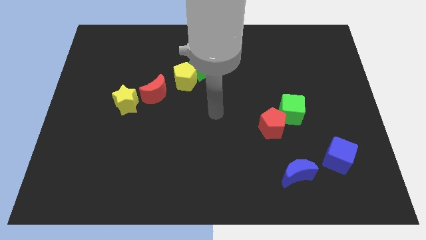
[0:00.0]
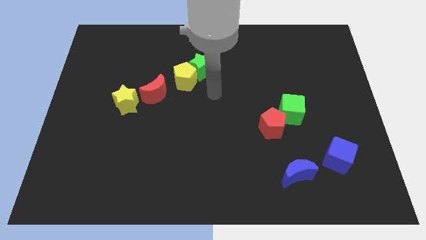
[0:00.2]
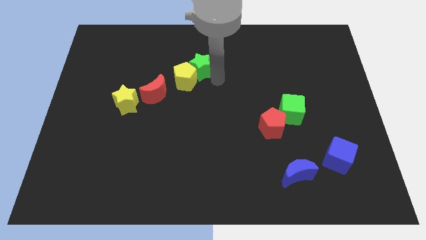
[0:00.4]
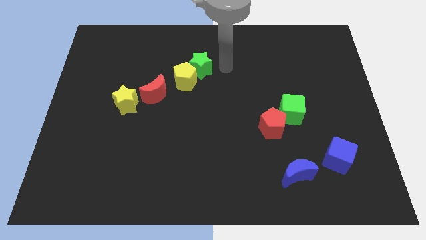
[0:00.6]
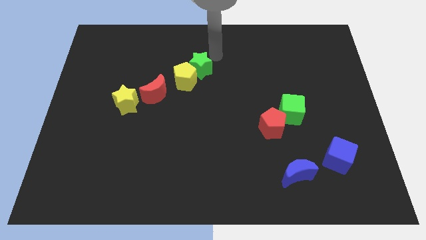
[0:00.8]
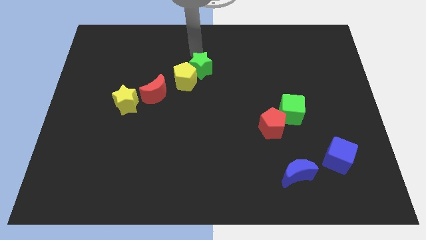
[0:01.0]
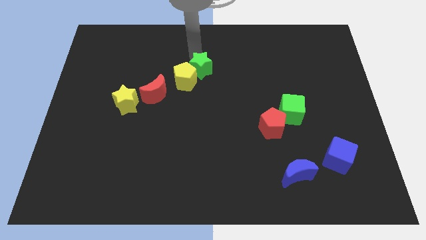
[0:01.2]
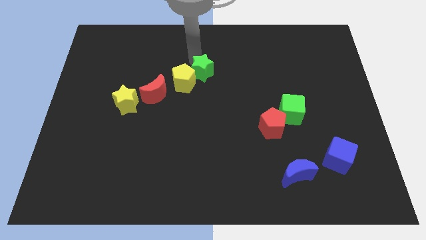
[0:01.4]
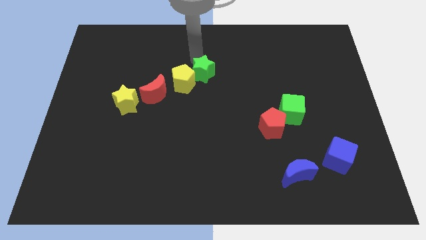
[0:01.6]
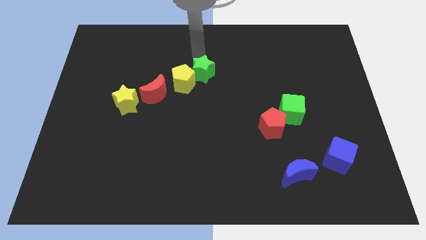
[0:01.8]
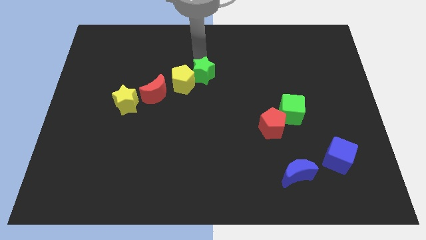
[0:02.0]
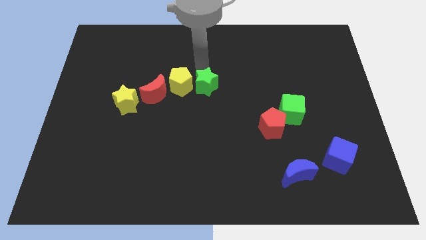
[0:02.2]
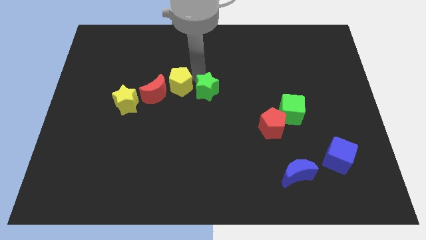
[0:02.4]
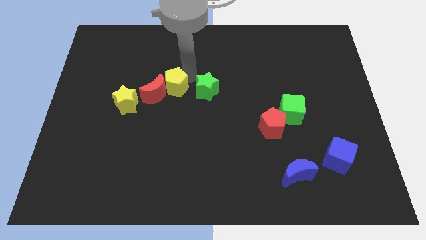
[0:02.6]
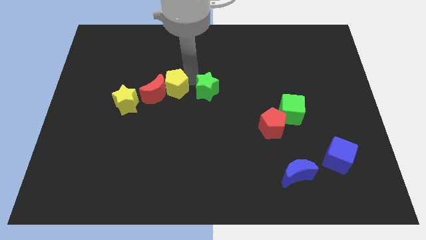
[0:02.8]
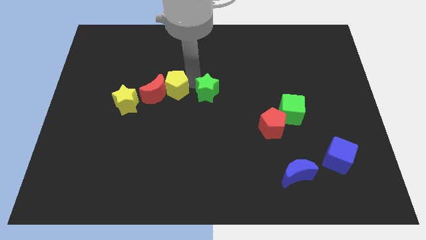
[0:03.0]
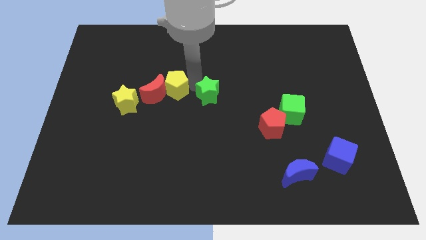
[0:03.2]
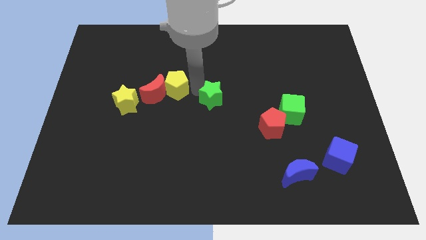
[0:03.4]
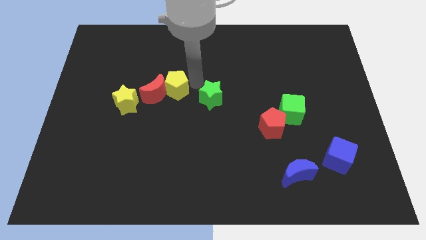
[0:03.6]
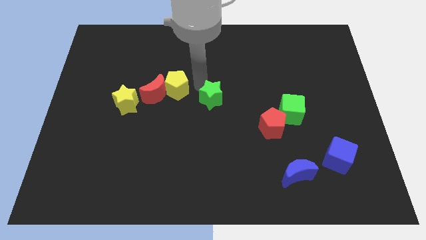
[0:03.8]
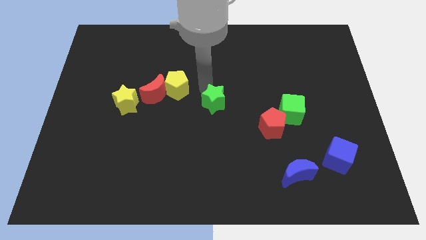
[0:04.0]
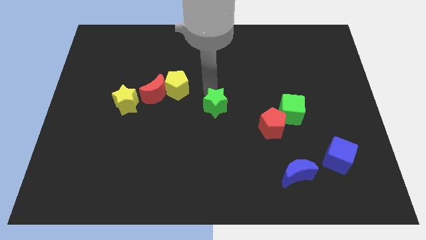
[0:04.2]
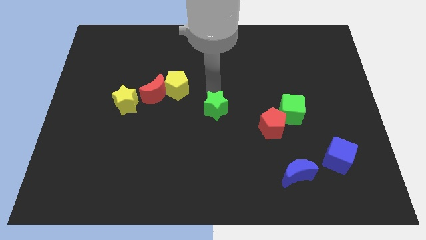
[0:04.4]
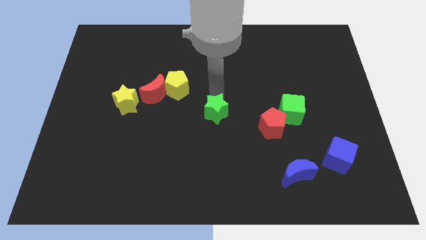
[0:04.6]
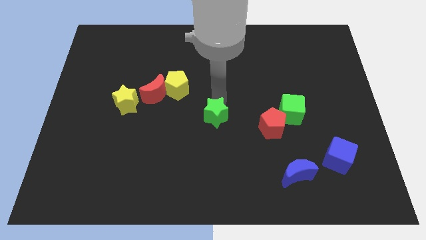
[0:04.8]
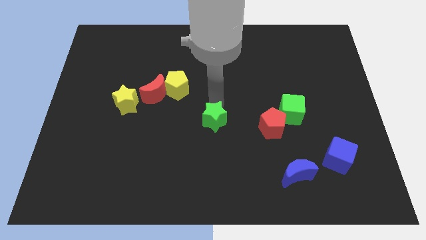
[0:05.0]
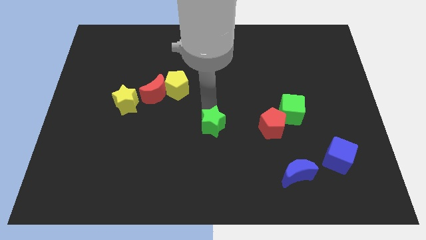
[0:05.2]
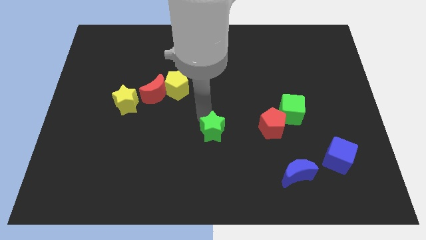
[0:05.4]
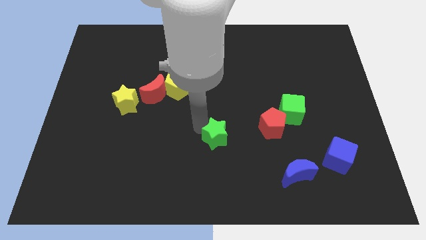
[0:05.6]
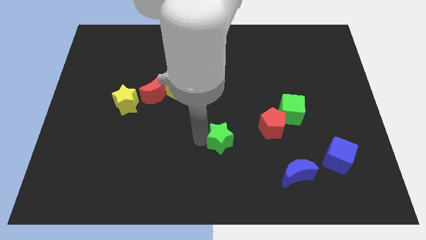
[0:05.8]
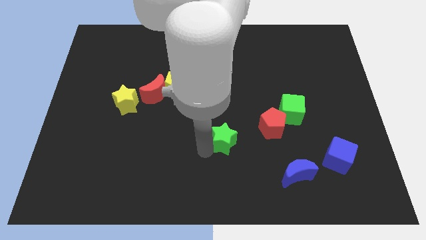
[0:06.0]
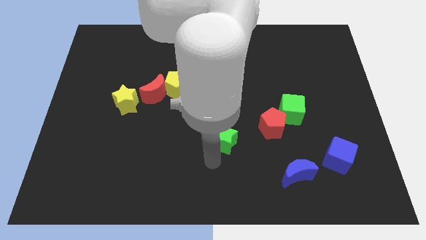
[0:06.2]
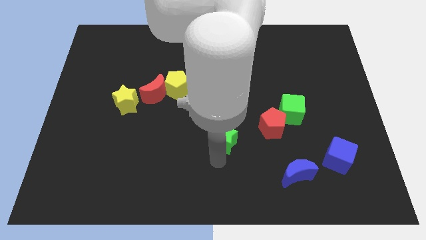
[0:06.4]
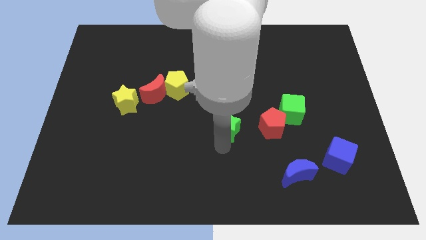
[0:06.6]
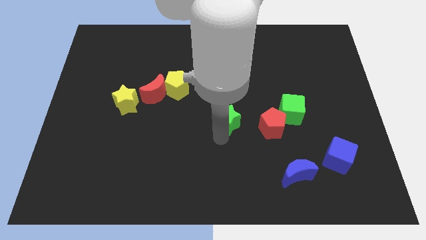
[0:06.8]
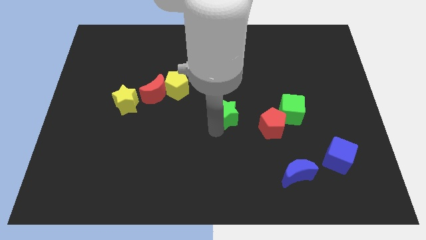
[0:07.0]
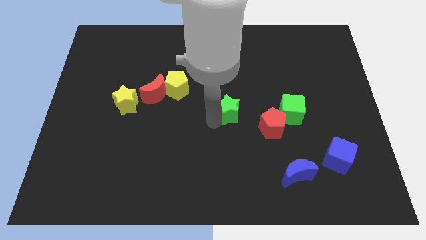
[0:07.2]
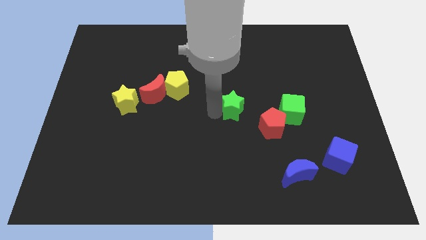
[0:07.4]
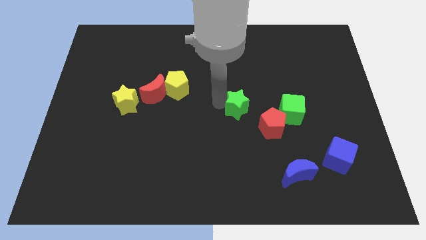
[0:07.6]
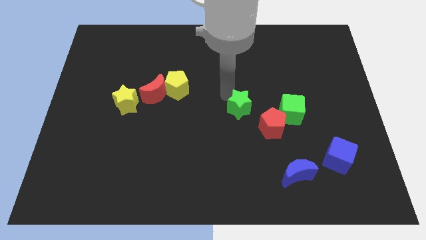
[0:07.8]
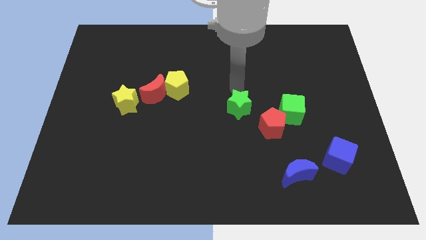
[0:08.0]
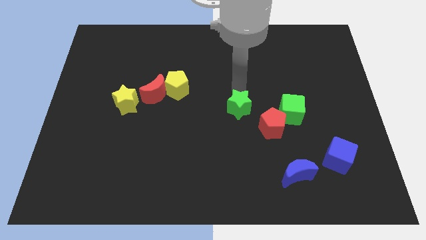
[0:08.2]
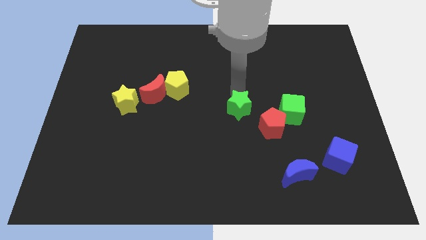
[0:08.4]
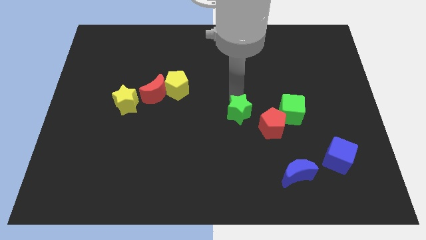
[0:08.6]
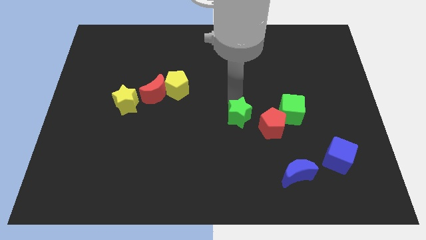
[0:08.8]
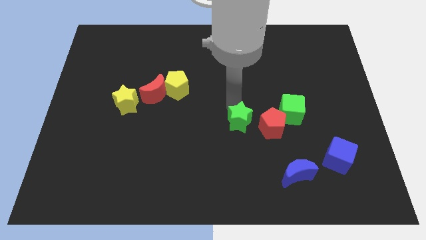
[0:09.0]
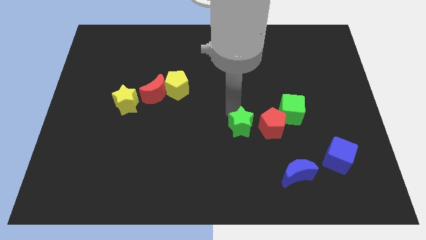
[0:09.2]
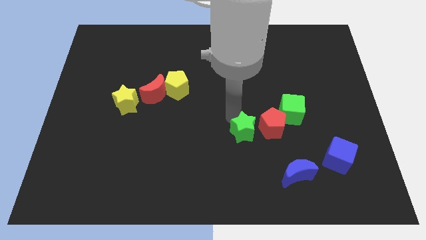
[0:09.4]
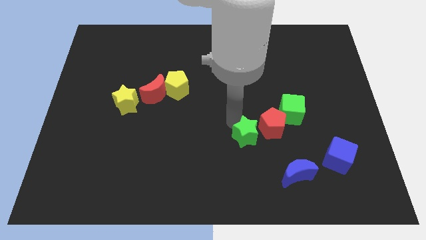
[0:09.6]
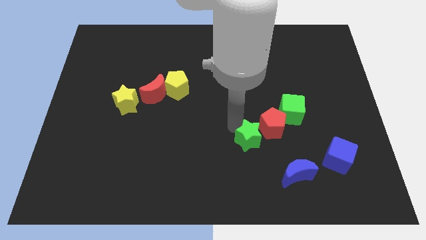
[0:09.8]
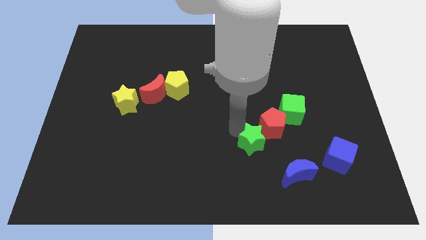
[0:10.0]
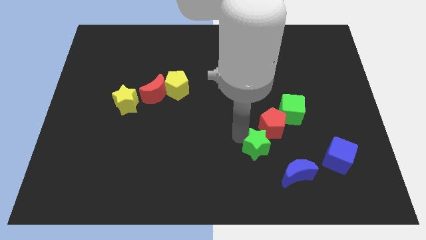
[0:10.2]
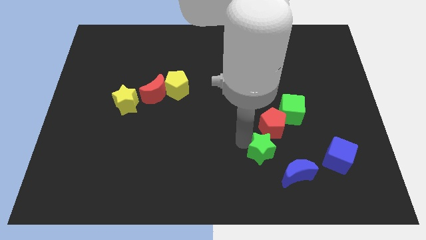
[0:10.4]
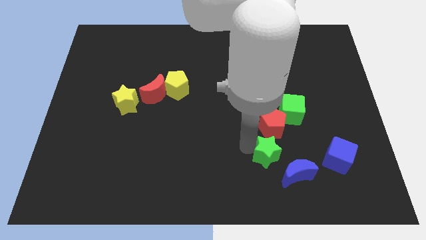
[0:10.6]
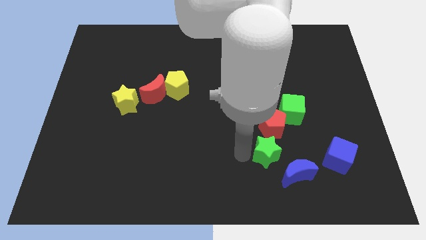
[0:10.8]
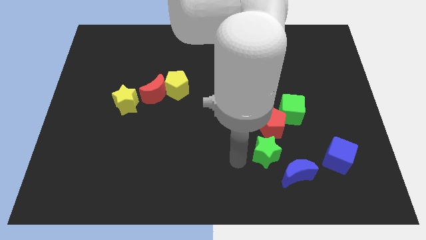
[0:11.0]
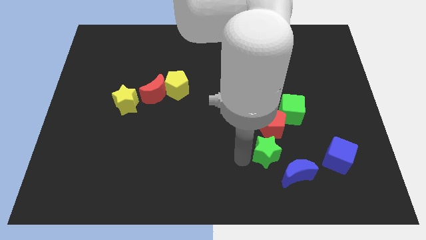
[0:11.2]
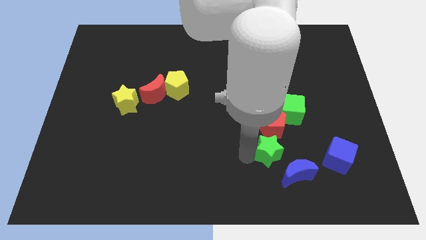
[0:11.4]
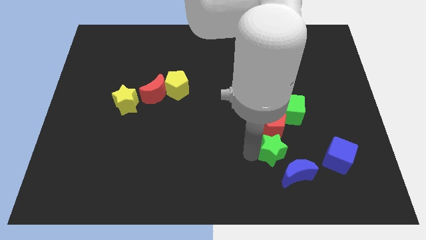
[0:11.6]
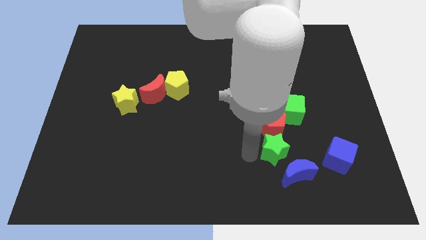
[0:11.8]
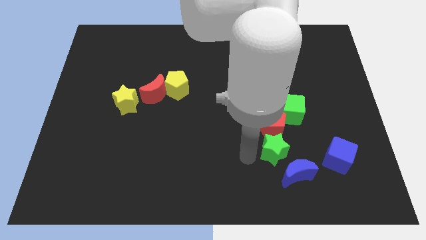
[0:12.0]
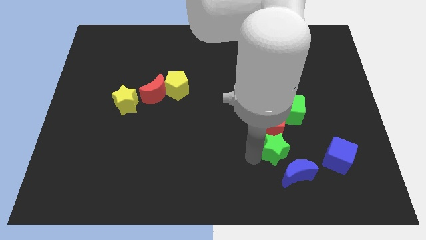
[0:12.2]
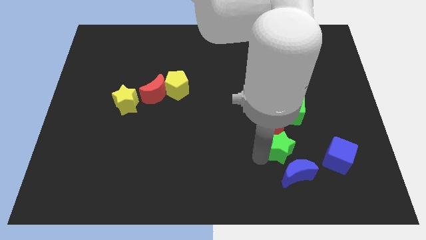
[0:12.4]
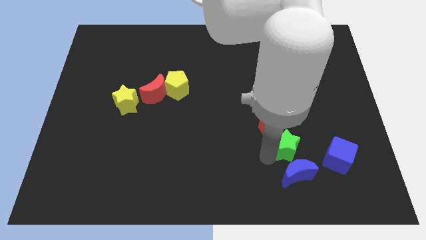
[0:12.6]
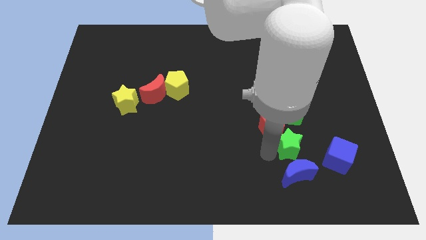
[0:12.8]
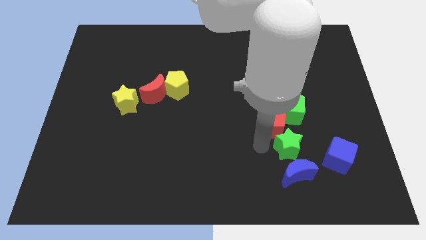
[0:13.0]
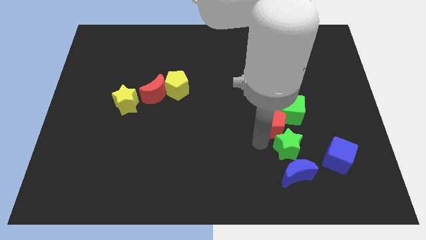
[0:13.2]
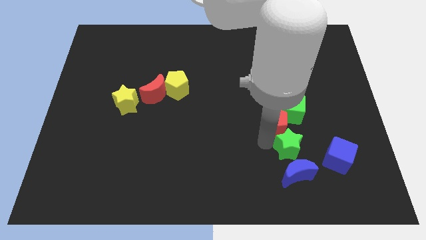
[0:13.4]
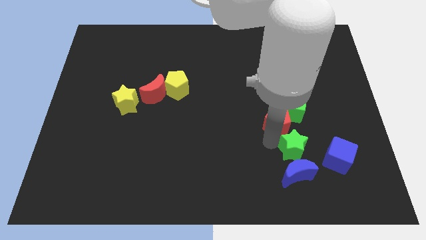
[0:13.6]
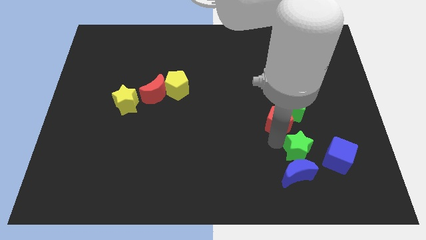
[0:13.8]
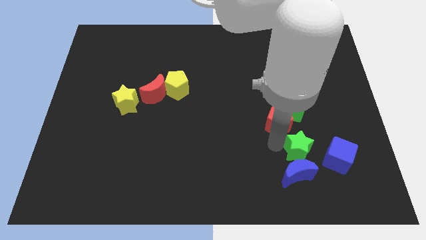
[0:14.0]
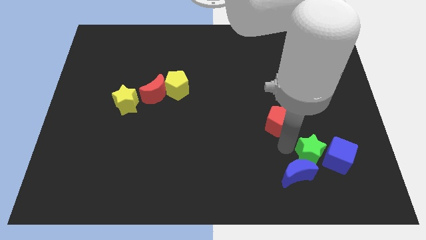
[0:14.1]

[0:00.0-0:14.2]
slide the green star next to the blue cube
